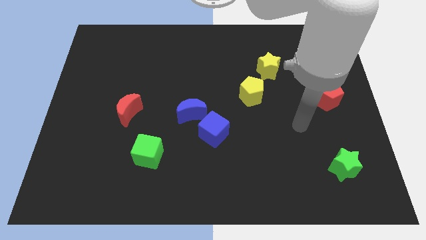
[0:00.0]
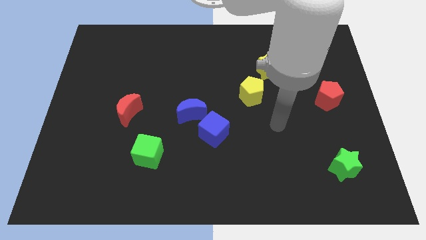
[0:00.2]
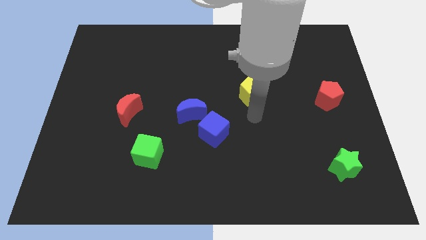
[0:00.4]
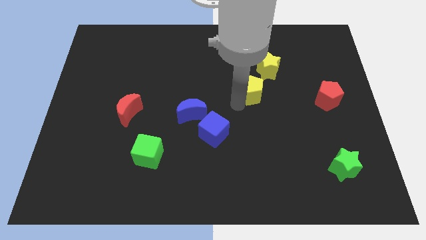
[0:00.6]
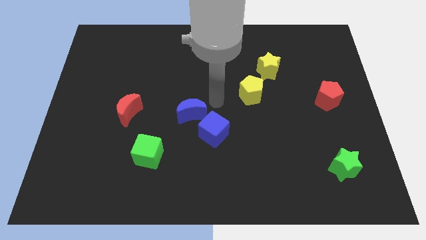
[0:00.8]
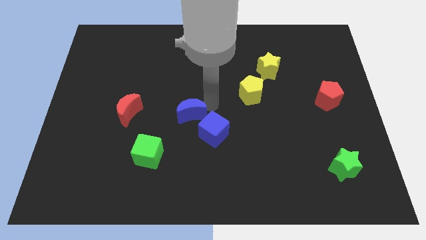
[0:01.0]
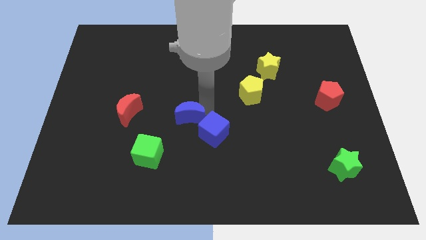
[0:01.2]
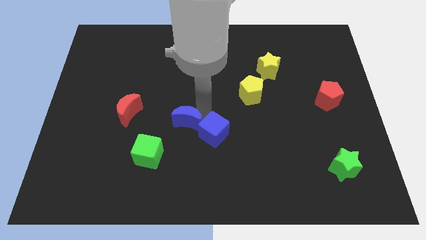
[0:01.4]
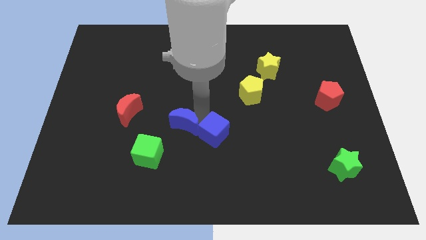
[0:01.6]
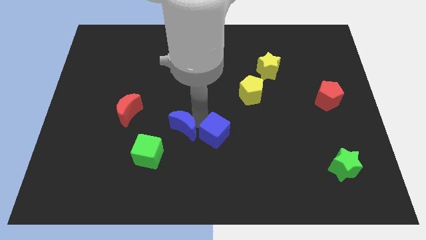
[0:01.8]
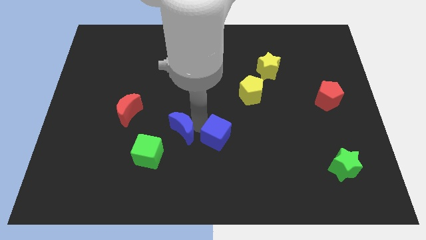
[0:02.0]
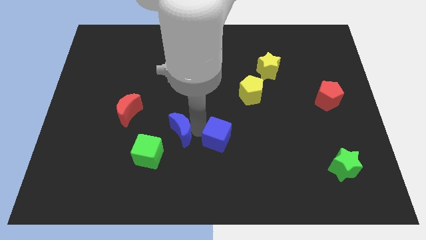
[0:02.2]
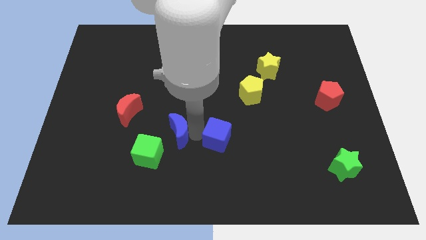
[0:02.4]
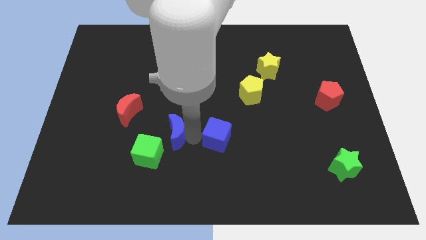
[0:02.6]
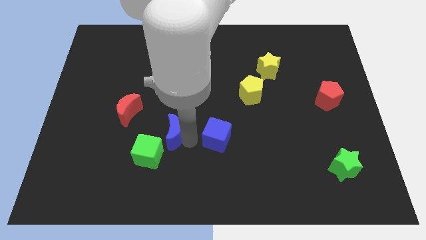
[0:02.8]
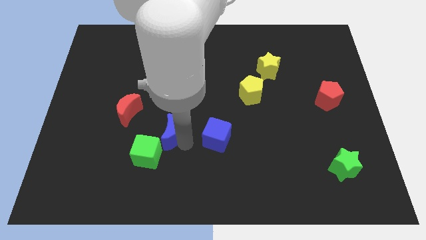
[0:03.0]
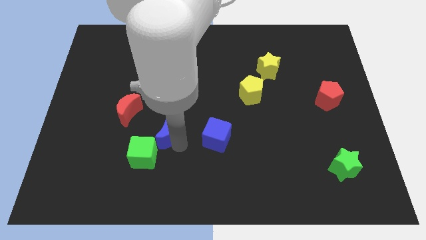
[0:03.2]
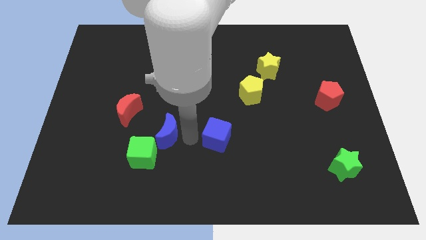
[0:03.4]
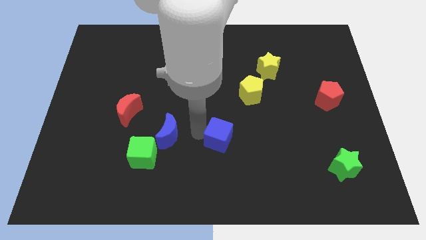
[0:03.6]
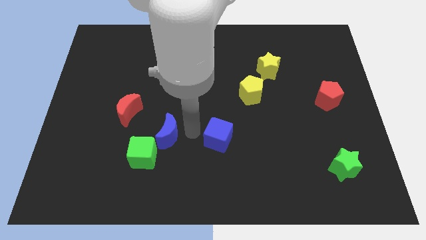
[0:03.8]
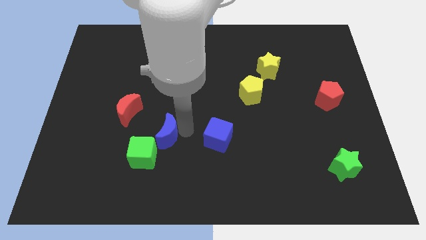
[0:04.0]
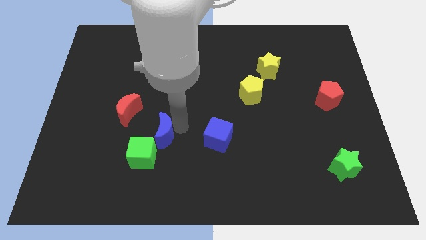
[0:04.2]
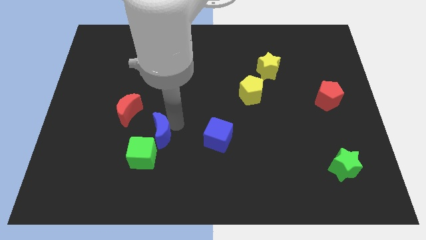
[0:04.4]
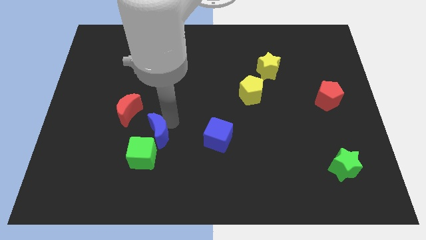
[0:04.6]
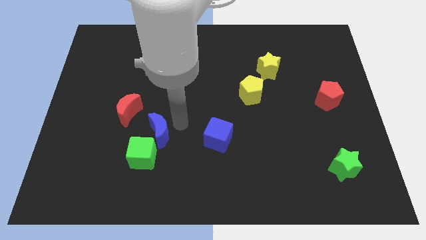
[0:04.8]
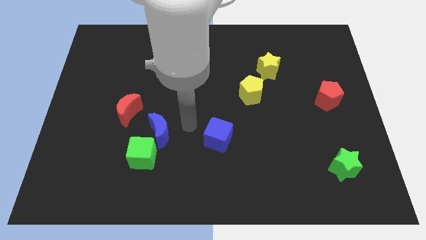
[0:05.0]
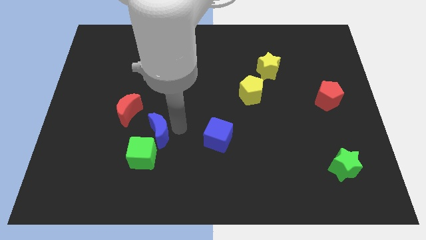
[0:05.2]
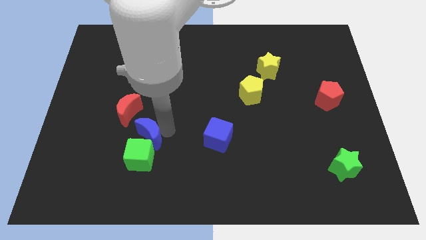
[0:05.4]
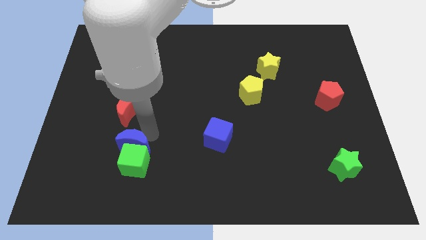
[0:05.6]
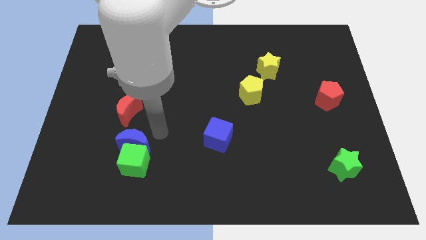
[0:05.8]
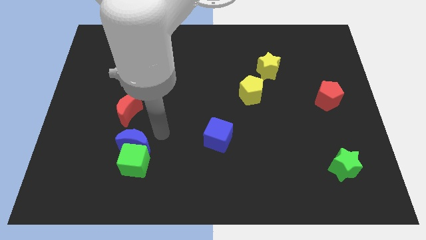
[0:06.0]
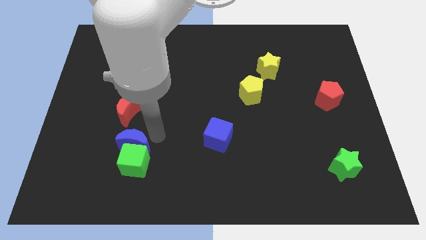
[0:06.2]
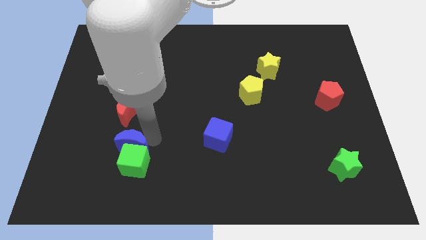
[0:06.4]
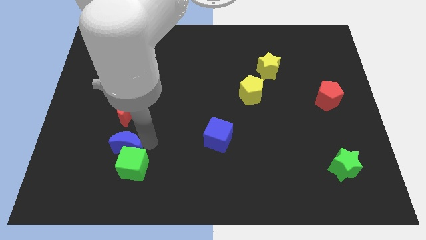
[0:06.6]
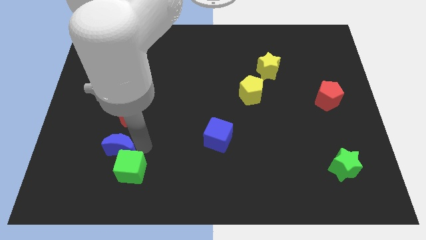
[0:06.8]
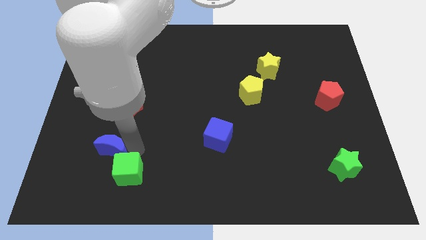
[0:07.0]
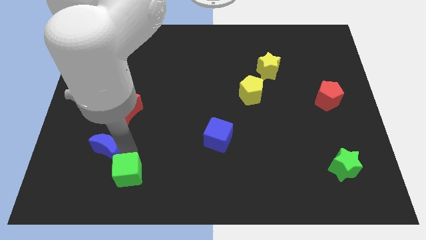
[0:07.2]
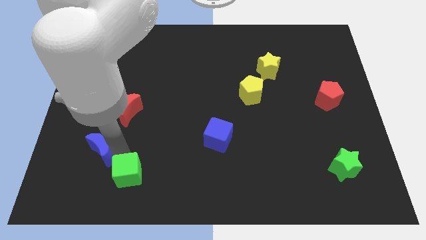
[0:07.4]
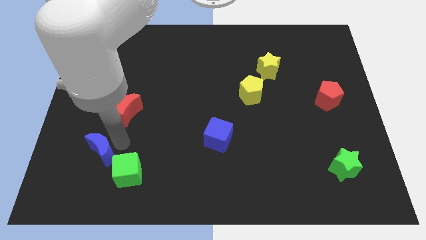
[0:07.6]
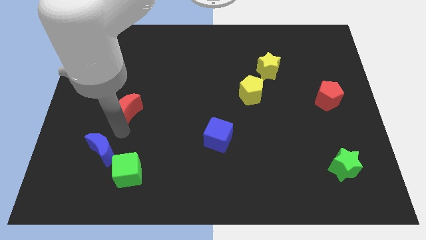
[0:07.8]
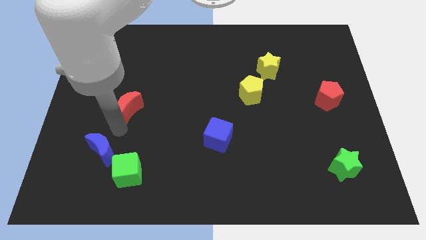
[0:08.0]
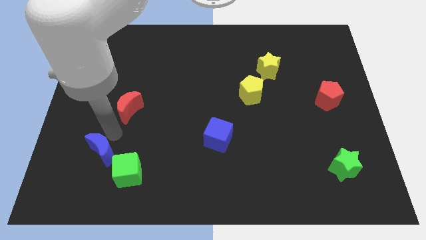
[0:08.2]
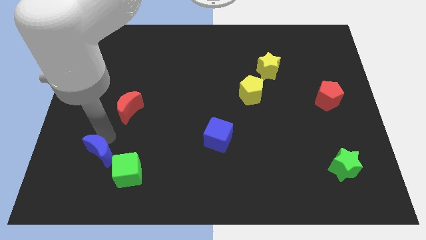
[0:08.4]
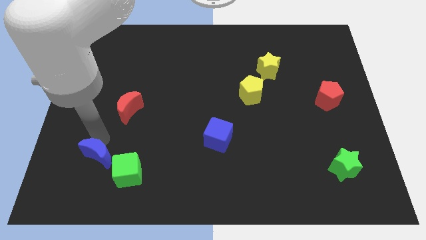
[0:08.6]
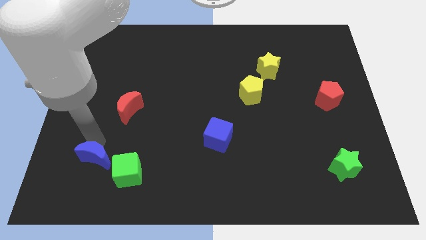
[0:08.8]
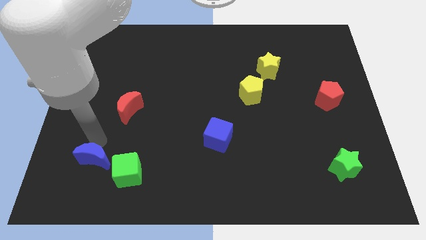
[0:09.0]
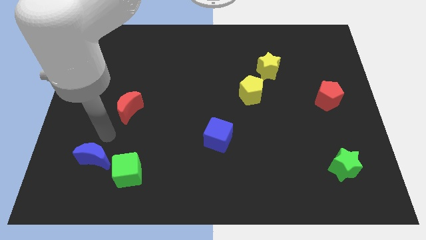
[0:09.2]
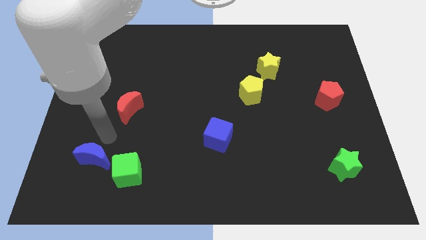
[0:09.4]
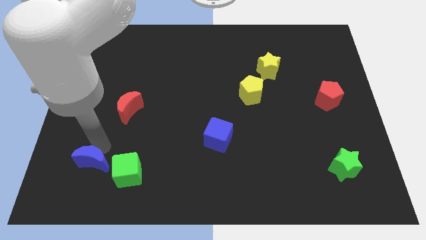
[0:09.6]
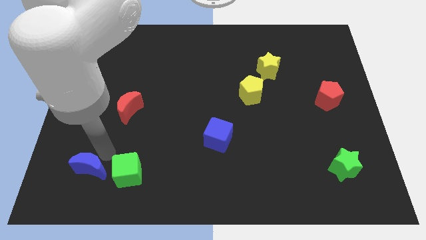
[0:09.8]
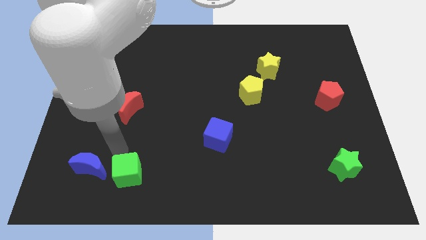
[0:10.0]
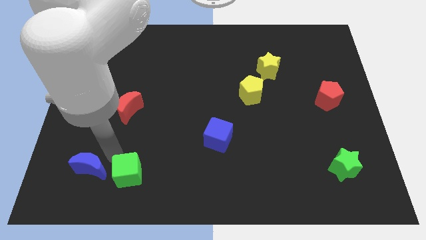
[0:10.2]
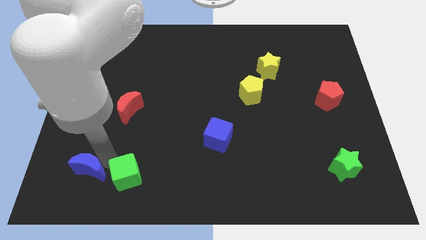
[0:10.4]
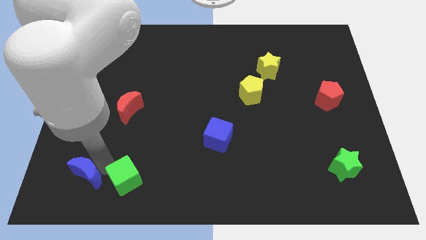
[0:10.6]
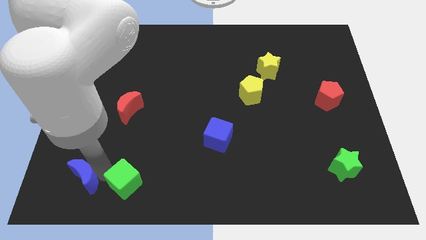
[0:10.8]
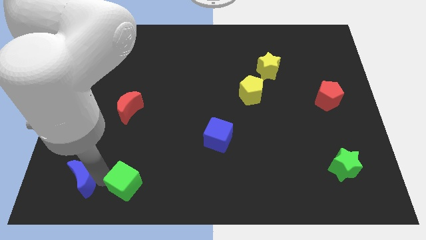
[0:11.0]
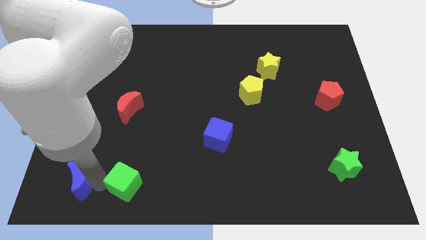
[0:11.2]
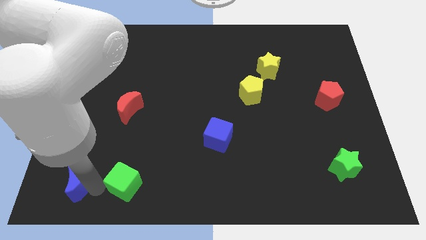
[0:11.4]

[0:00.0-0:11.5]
move the blue moon to the bottom left corner
